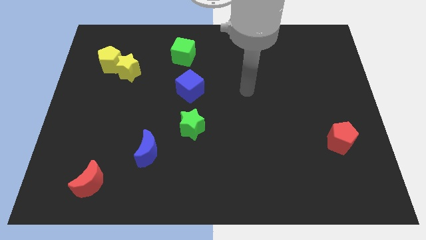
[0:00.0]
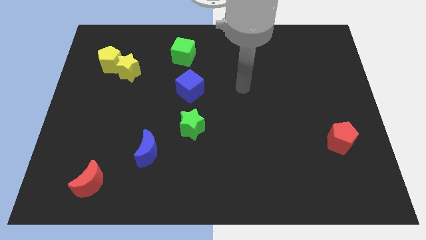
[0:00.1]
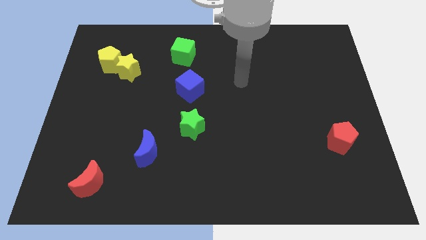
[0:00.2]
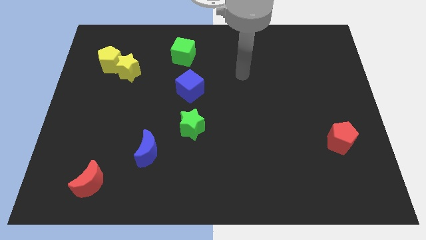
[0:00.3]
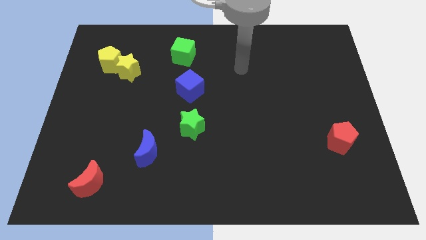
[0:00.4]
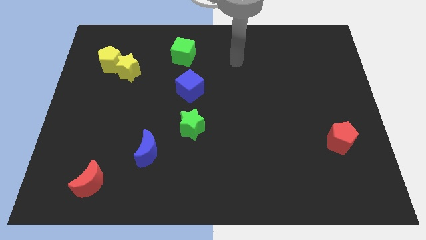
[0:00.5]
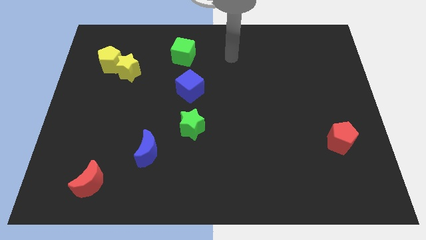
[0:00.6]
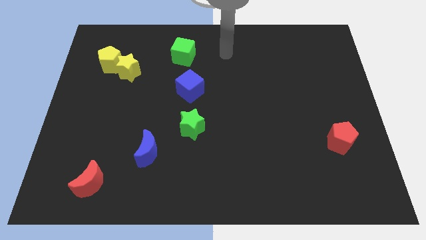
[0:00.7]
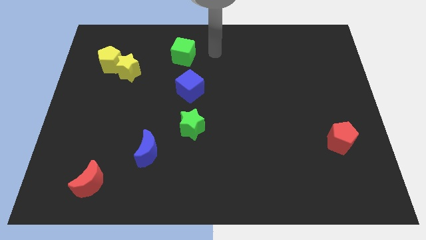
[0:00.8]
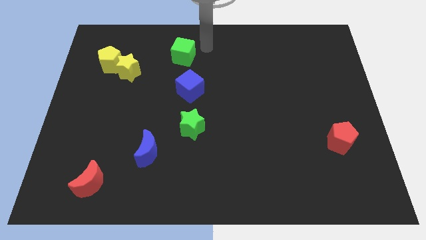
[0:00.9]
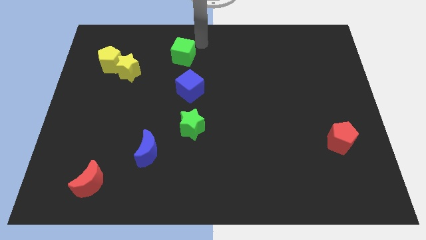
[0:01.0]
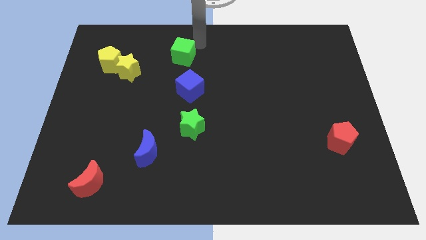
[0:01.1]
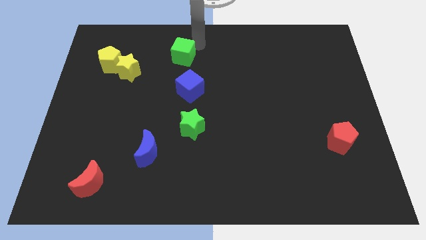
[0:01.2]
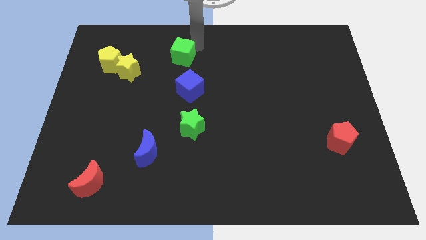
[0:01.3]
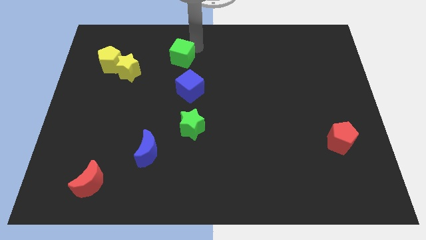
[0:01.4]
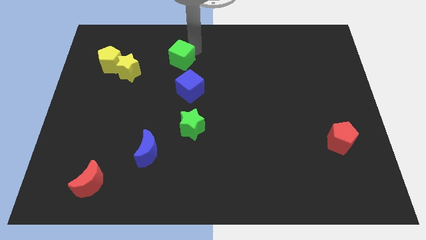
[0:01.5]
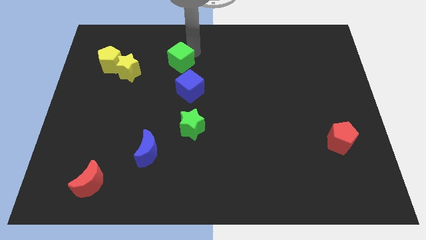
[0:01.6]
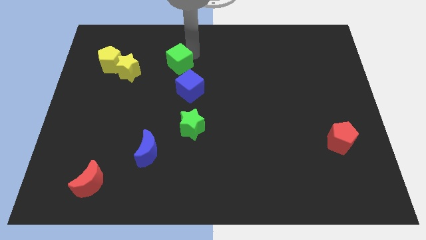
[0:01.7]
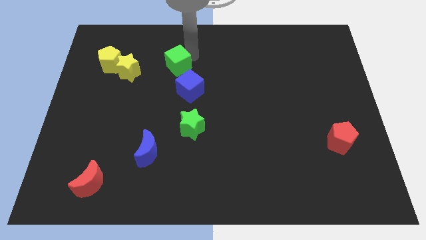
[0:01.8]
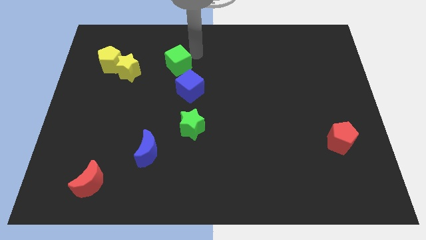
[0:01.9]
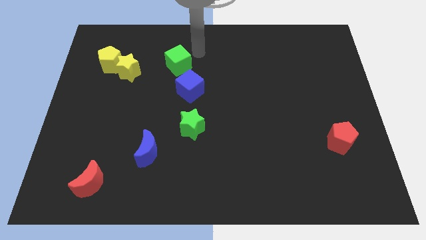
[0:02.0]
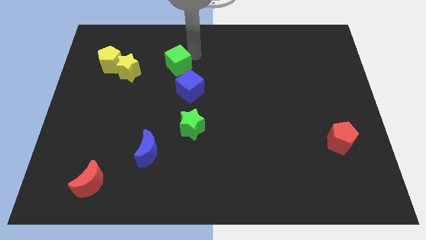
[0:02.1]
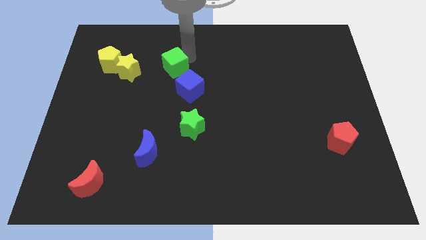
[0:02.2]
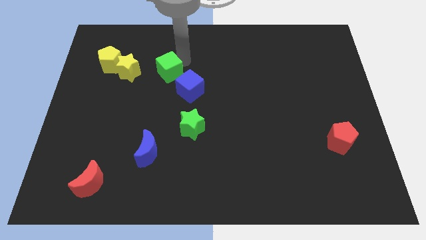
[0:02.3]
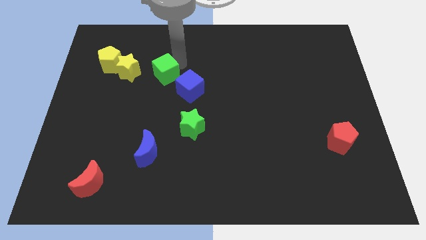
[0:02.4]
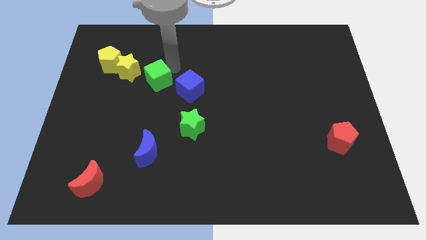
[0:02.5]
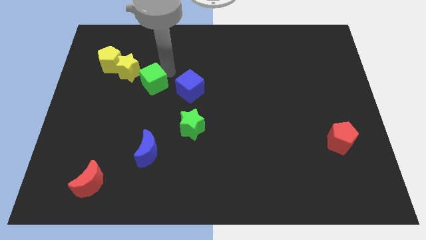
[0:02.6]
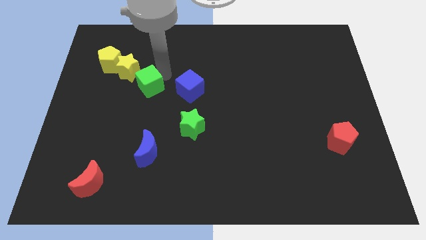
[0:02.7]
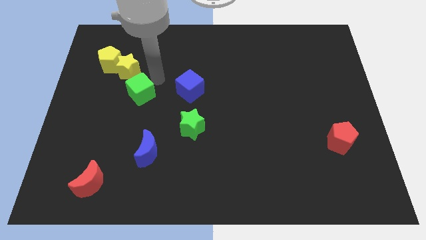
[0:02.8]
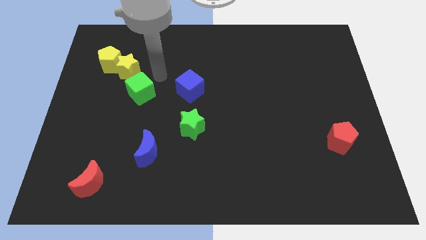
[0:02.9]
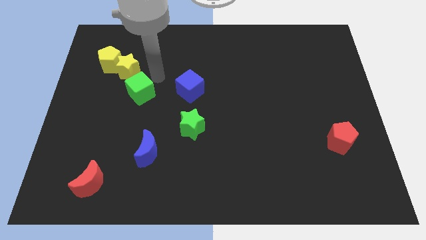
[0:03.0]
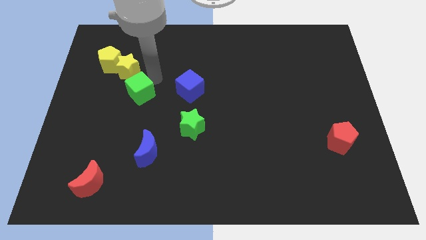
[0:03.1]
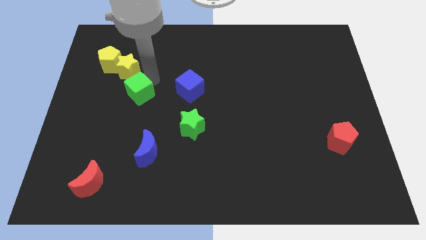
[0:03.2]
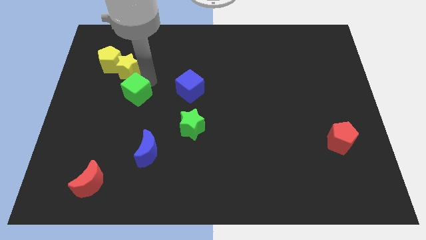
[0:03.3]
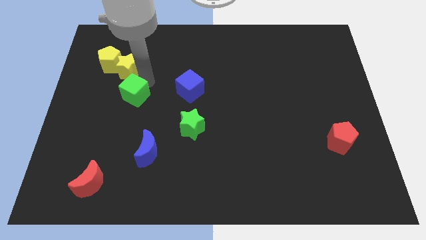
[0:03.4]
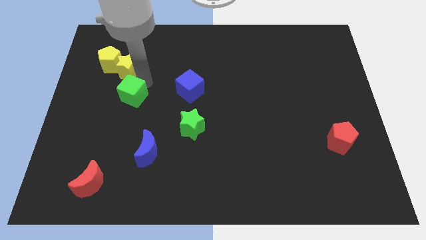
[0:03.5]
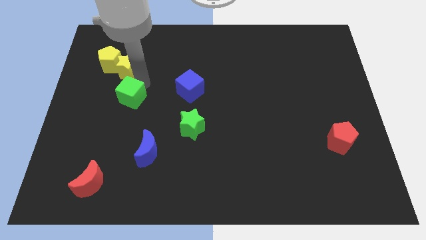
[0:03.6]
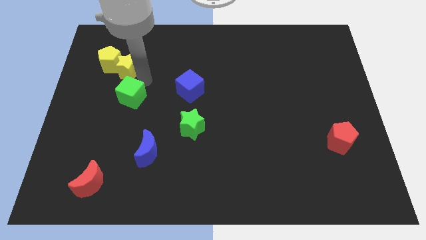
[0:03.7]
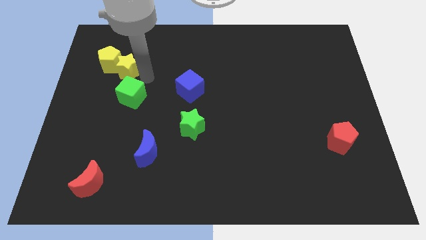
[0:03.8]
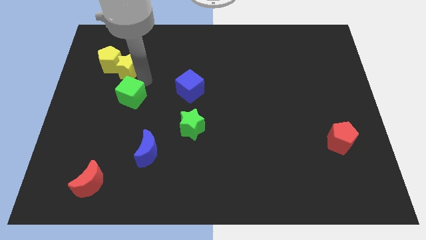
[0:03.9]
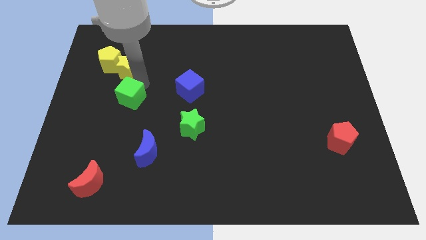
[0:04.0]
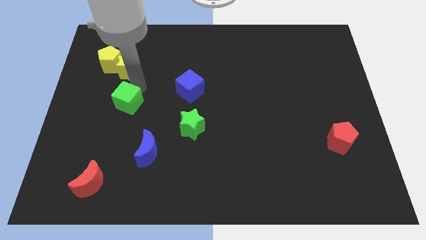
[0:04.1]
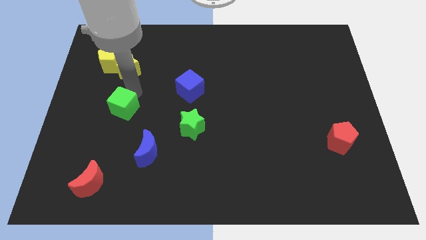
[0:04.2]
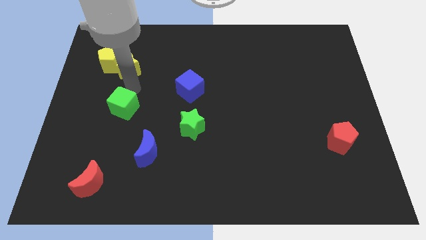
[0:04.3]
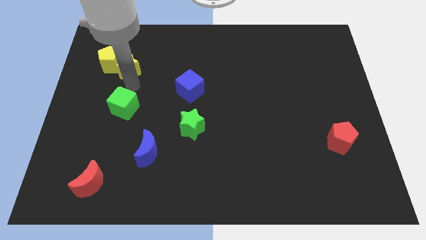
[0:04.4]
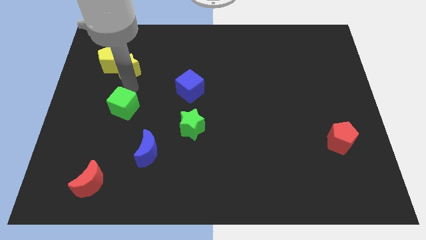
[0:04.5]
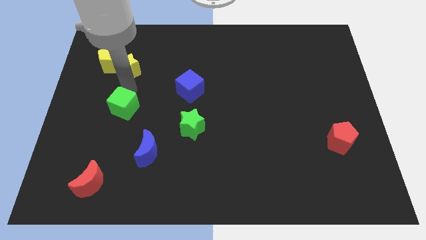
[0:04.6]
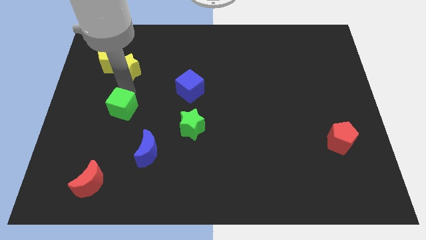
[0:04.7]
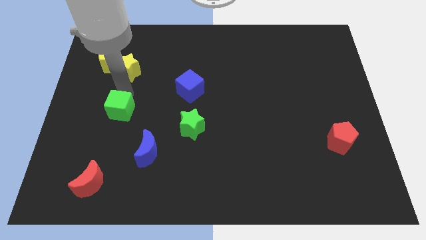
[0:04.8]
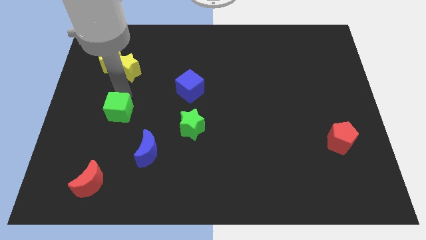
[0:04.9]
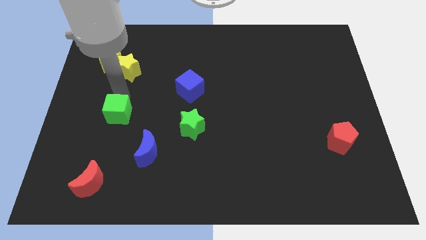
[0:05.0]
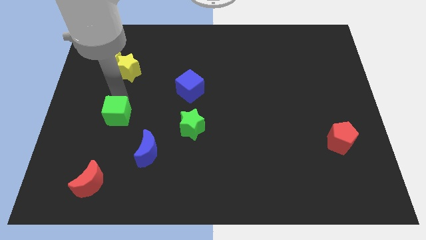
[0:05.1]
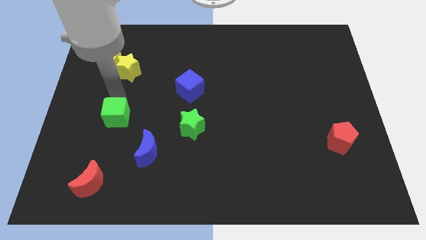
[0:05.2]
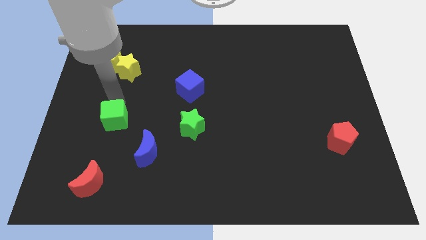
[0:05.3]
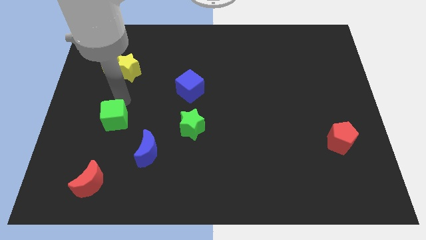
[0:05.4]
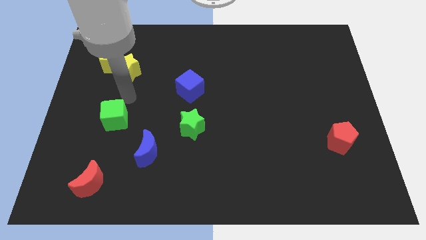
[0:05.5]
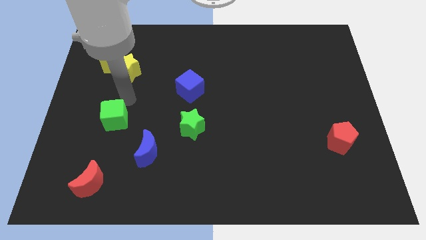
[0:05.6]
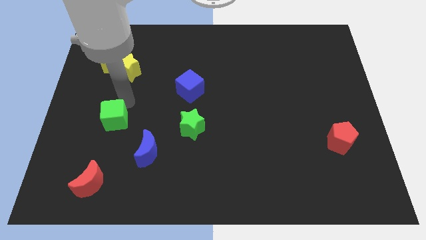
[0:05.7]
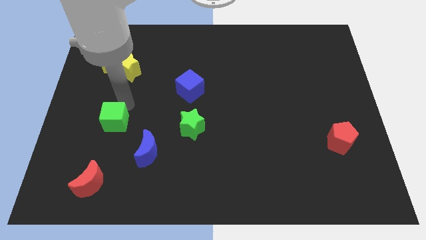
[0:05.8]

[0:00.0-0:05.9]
put the green cube to the top of the red moon

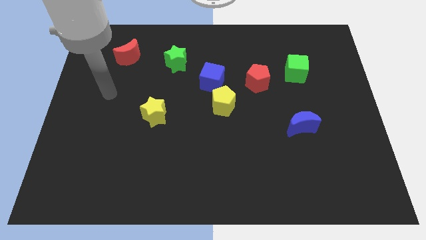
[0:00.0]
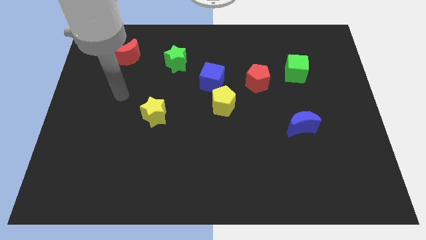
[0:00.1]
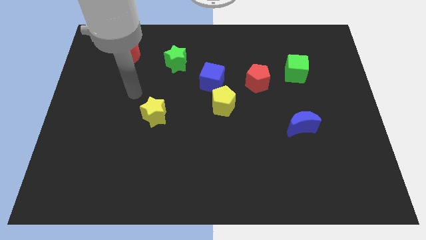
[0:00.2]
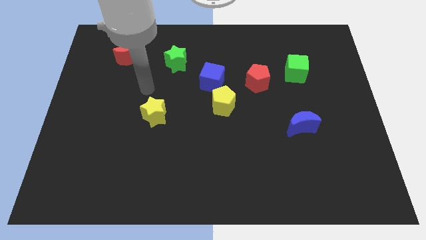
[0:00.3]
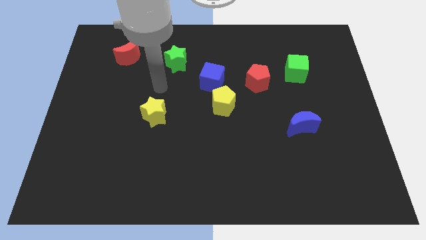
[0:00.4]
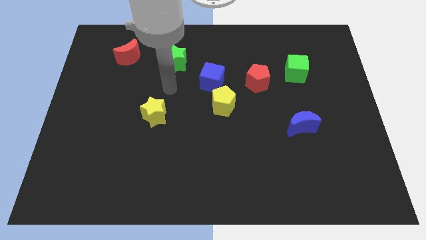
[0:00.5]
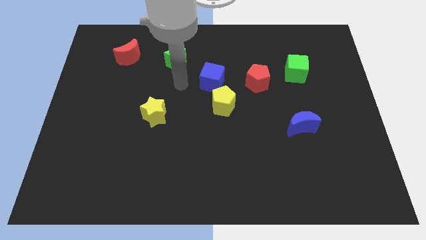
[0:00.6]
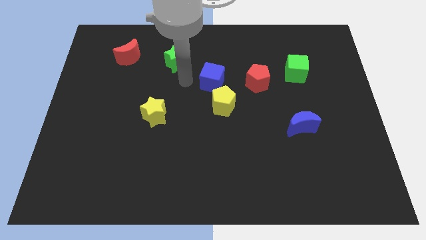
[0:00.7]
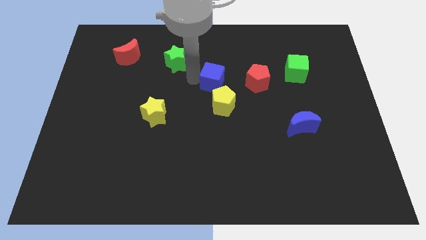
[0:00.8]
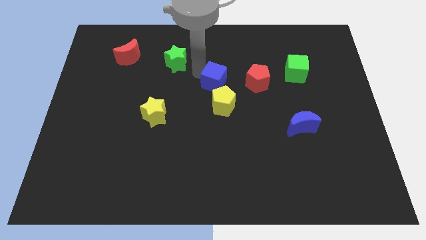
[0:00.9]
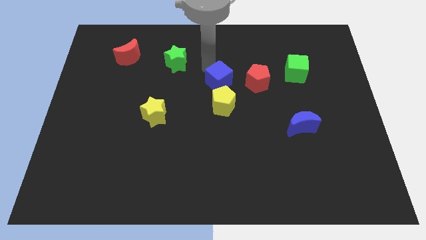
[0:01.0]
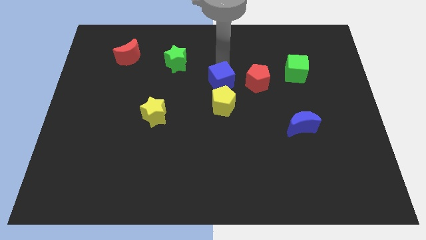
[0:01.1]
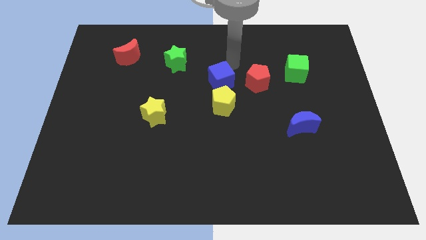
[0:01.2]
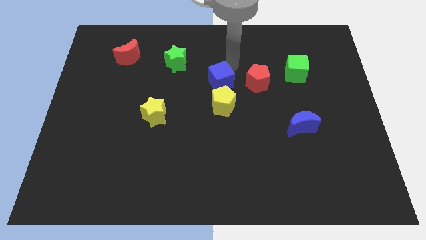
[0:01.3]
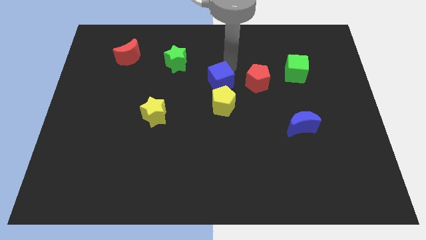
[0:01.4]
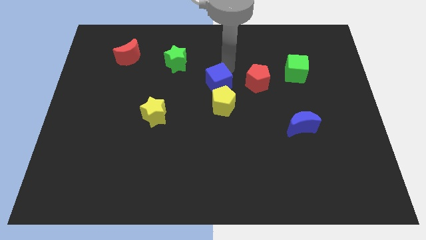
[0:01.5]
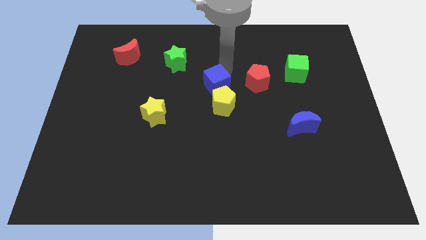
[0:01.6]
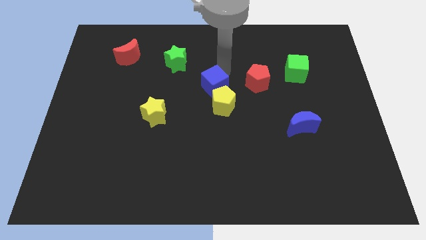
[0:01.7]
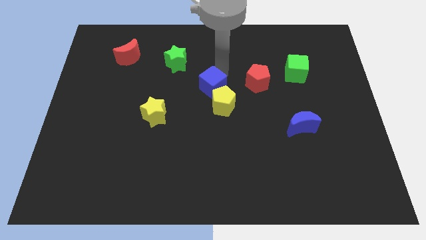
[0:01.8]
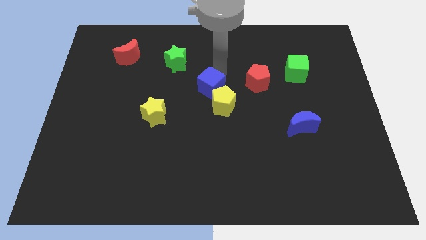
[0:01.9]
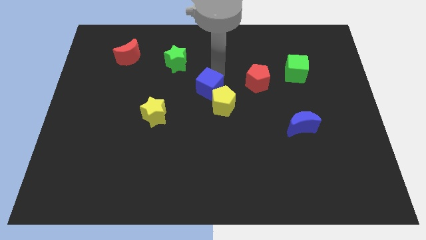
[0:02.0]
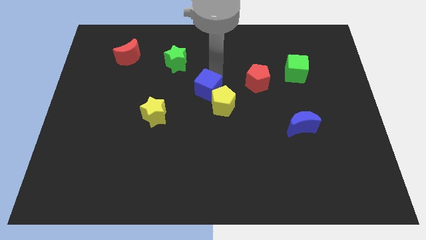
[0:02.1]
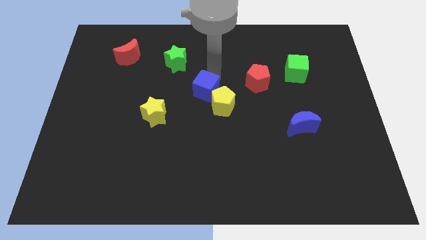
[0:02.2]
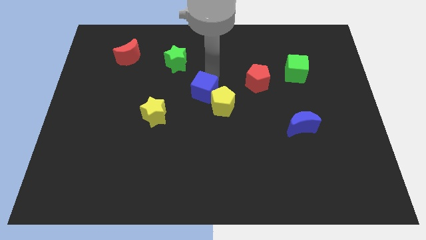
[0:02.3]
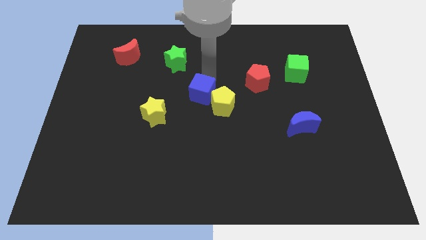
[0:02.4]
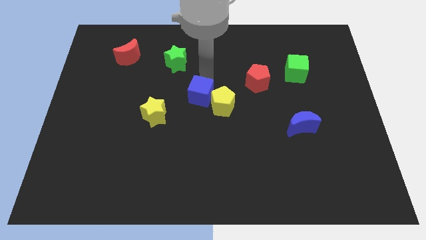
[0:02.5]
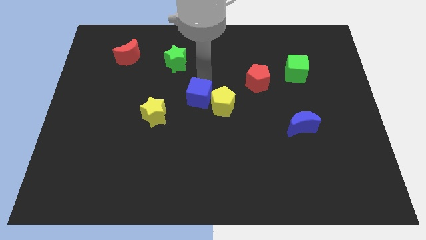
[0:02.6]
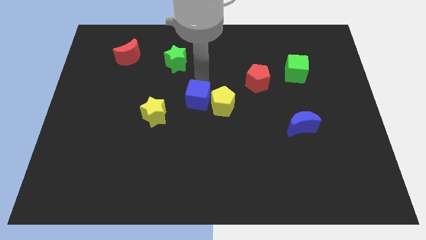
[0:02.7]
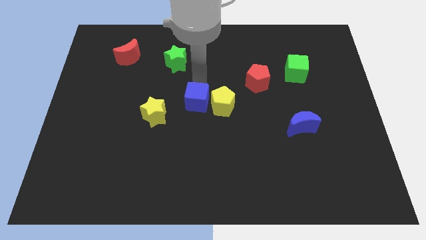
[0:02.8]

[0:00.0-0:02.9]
slide the blue cube to the right of the yellow star
